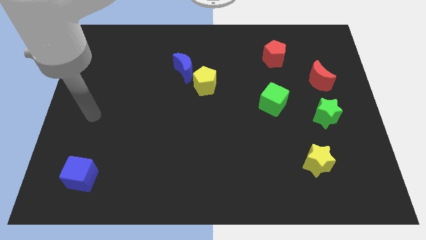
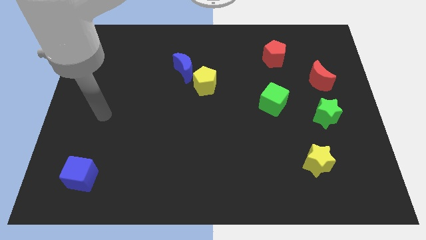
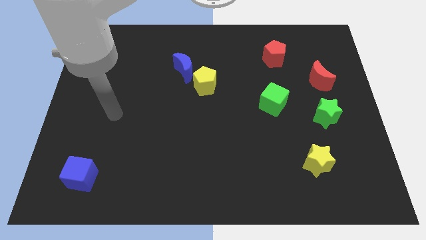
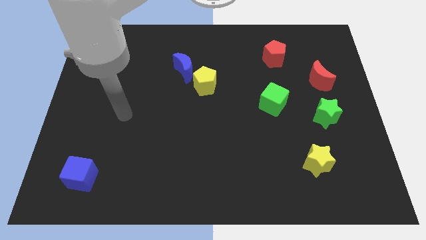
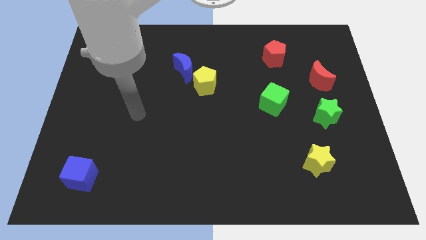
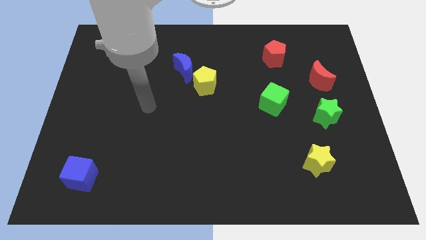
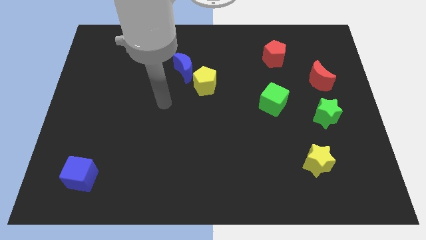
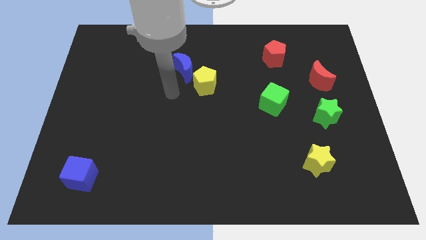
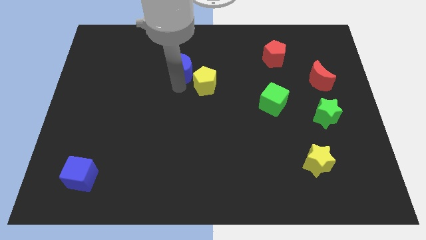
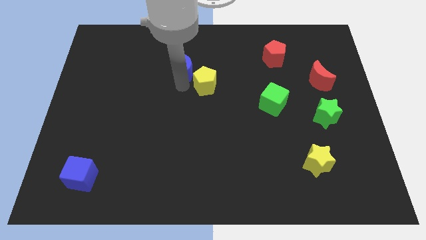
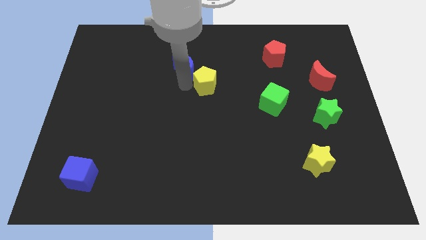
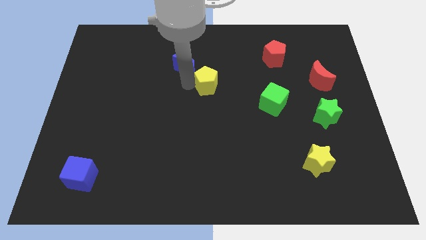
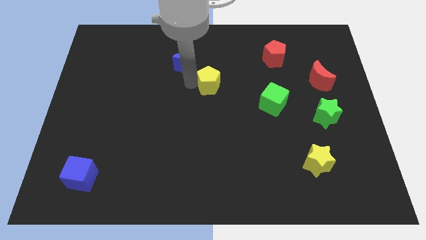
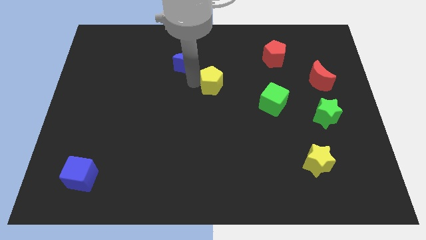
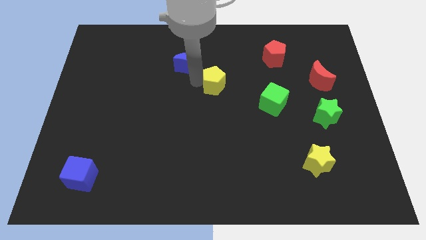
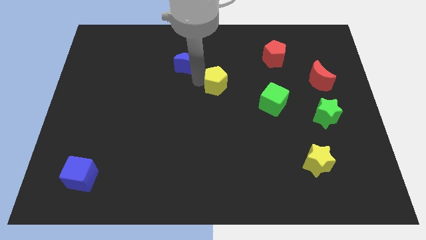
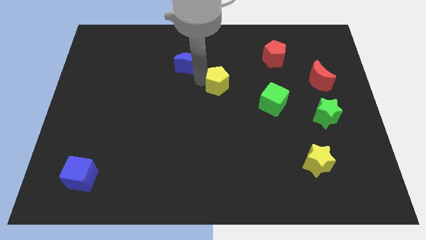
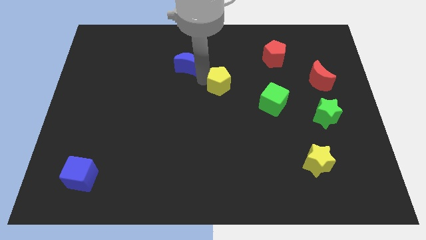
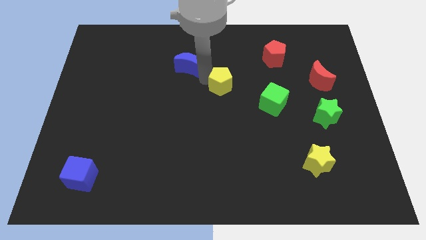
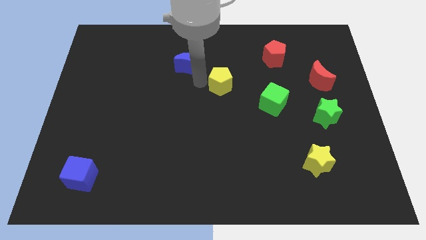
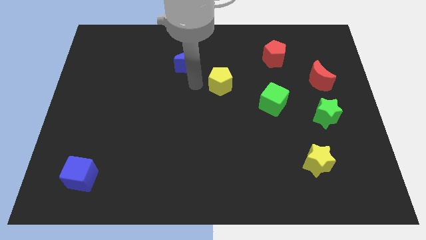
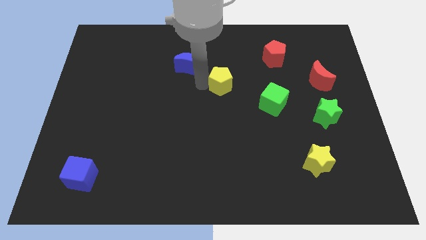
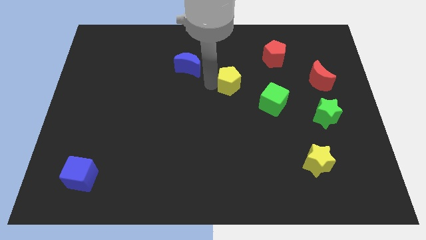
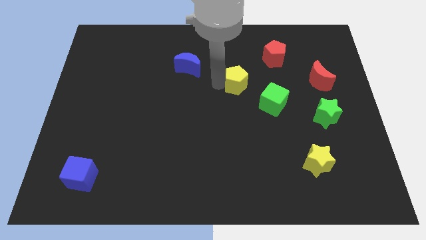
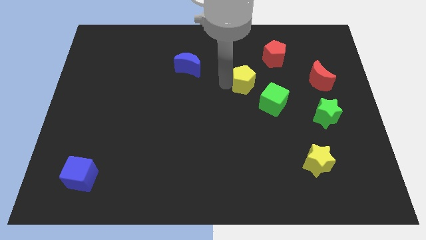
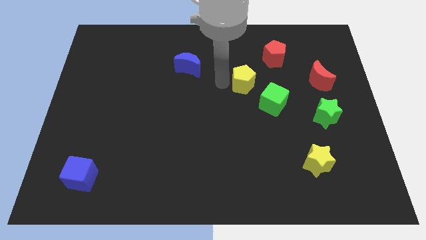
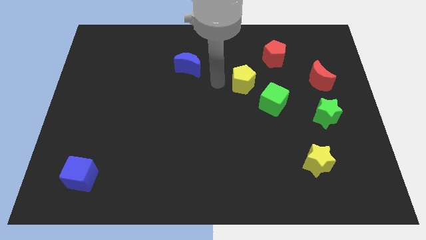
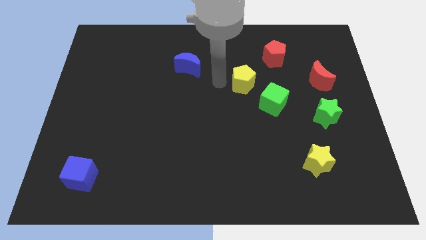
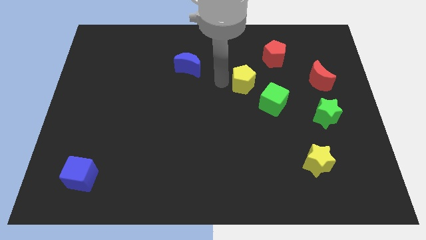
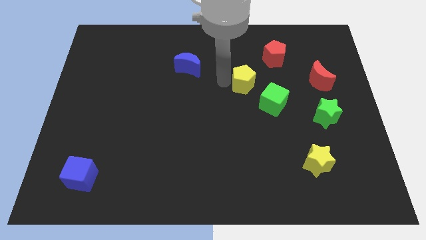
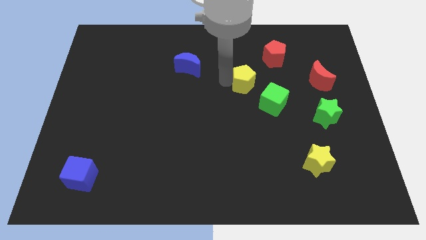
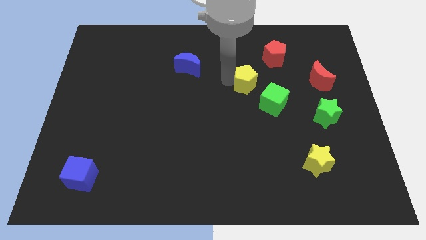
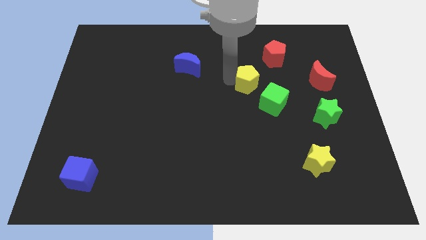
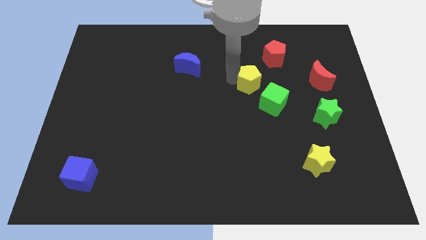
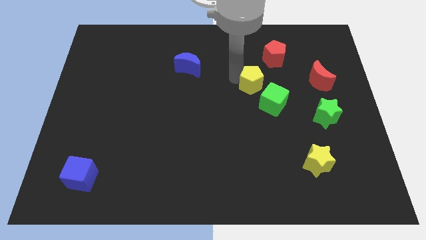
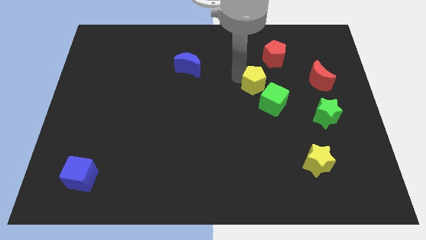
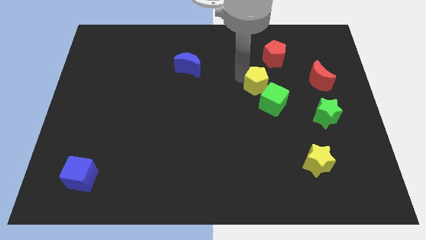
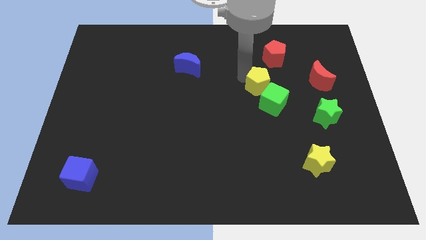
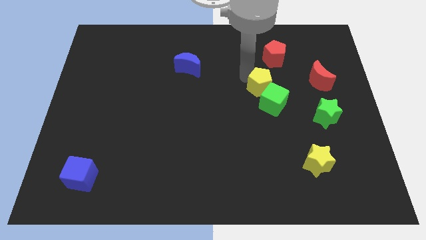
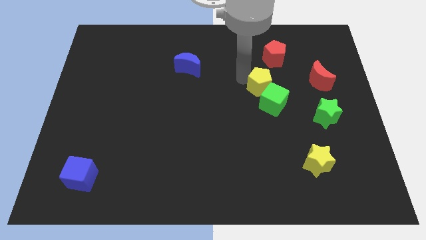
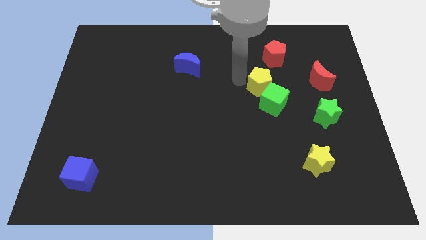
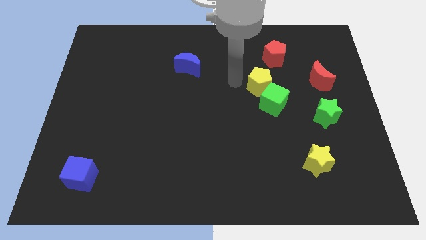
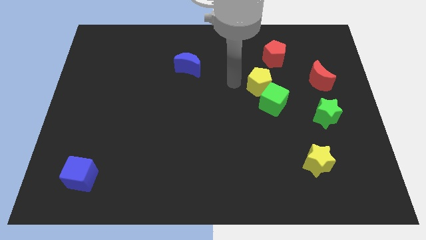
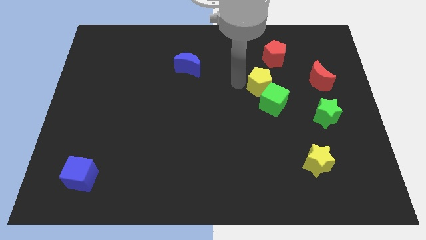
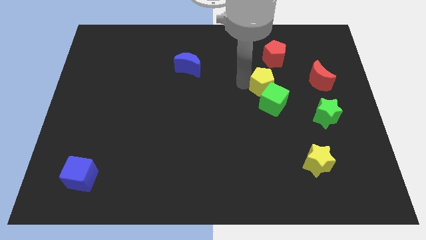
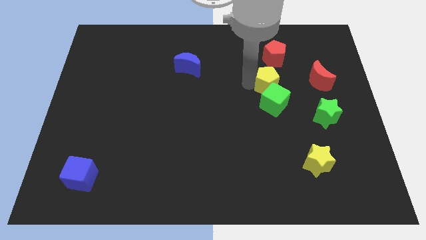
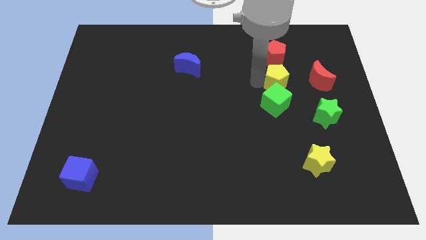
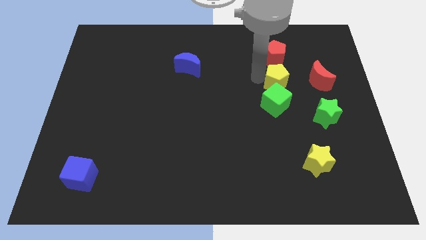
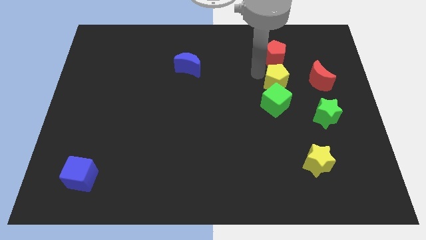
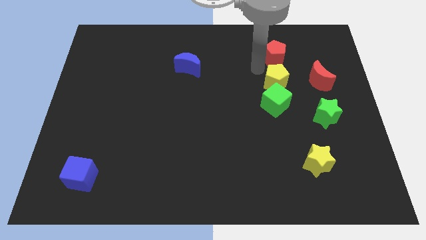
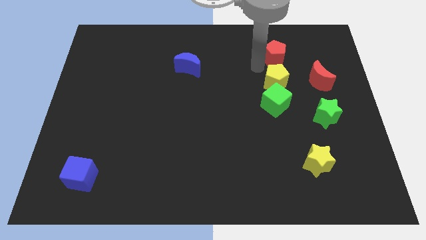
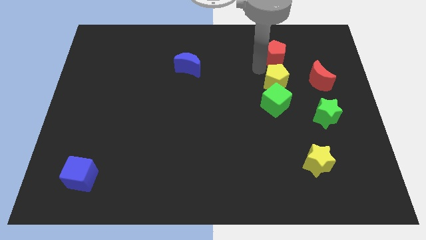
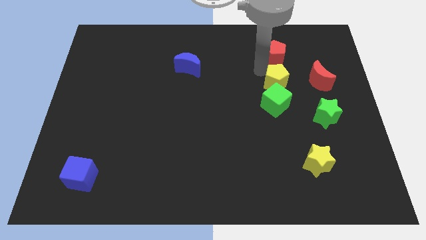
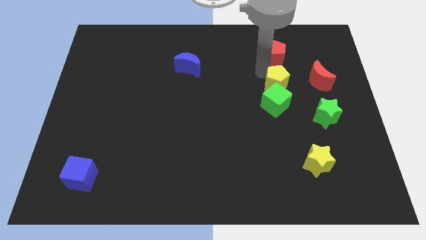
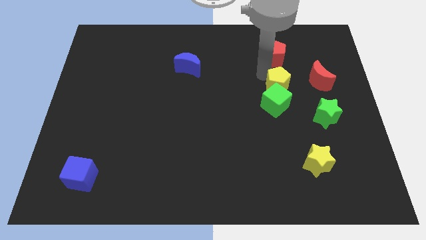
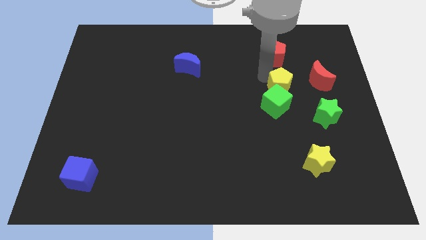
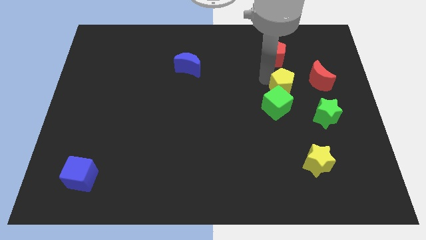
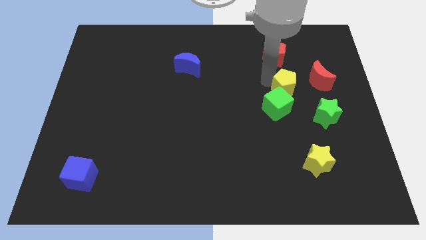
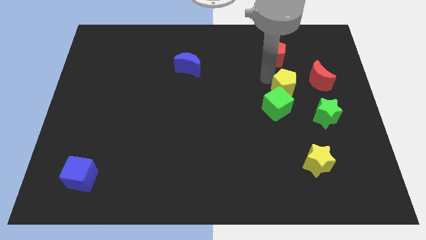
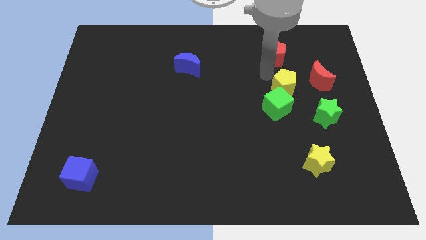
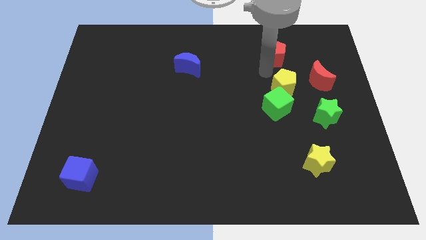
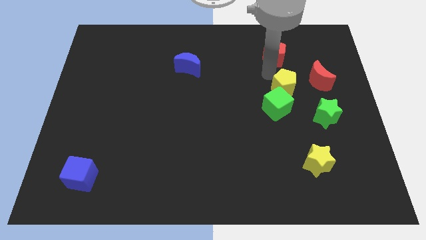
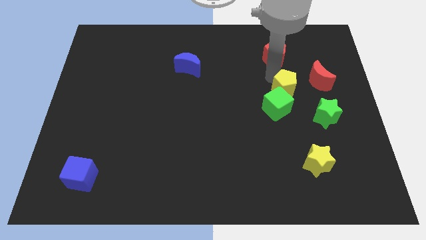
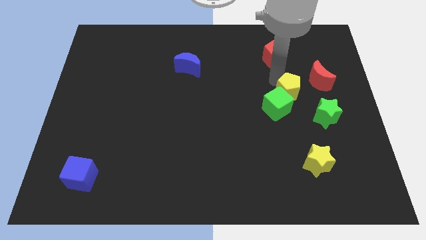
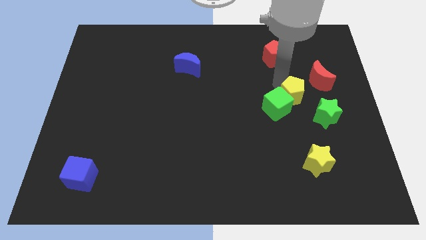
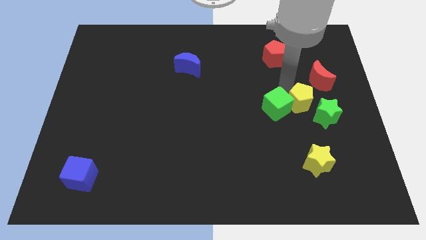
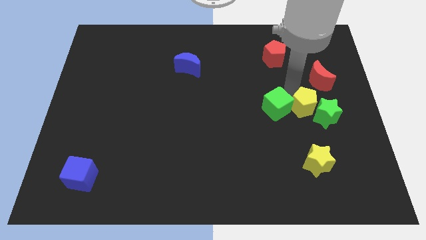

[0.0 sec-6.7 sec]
push the yellow pentagon to the green star
